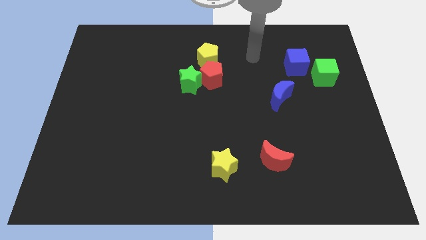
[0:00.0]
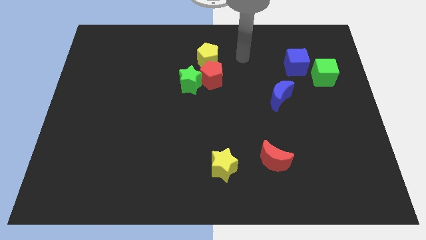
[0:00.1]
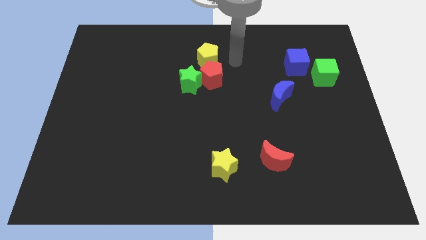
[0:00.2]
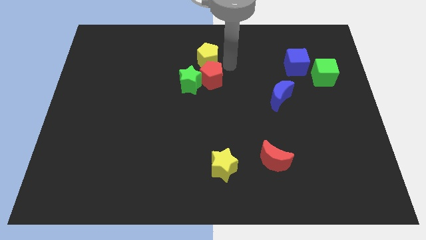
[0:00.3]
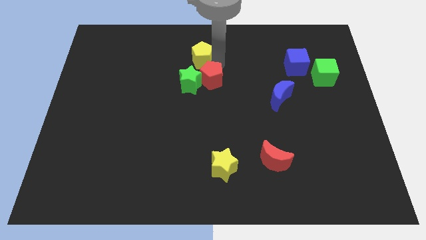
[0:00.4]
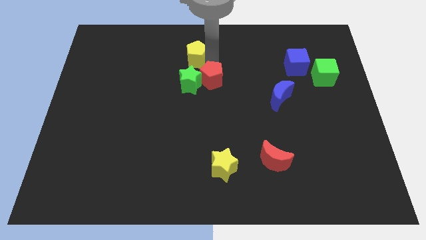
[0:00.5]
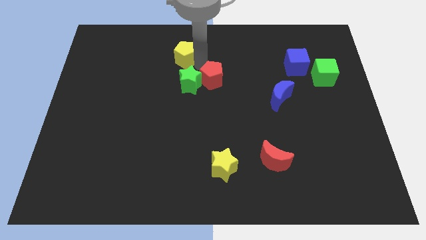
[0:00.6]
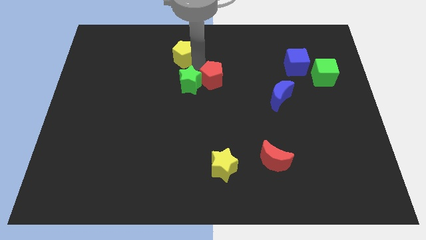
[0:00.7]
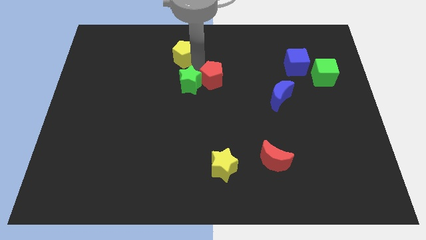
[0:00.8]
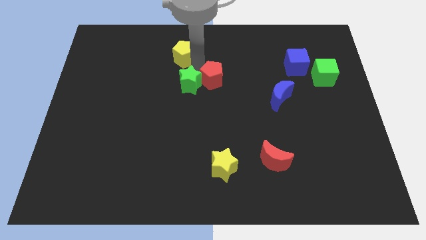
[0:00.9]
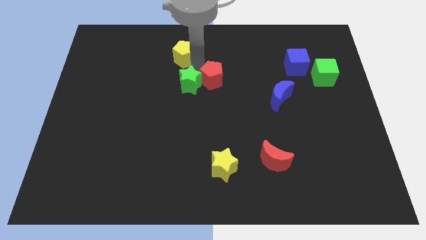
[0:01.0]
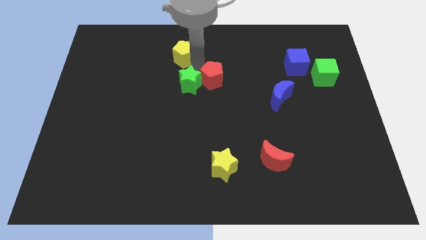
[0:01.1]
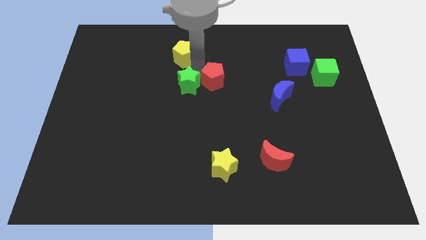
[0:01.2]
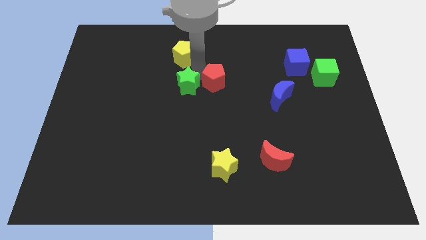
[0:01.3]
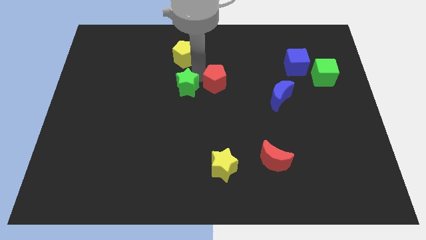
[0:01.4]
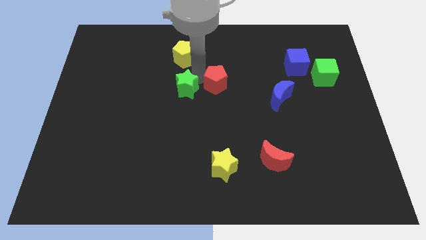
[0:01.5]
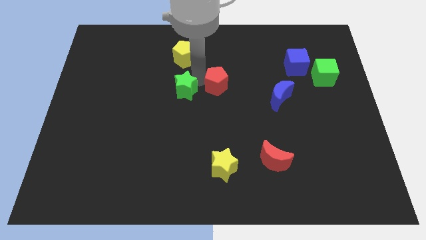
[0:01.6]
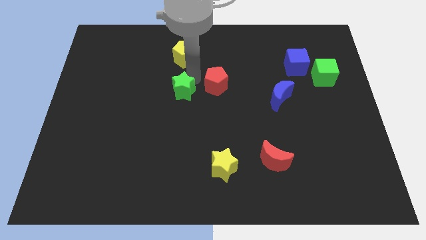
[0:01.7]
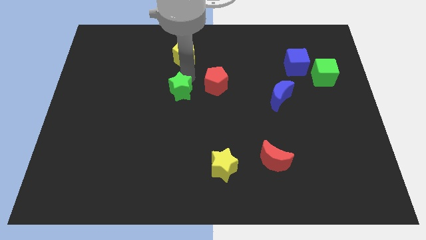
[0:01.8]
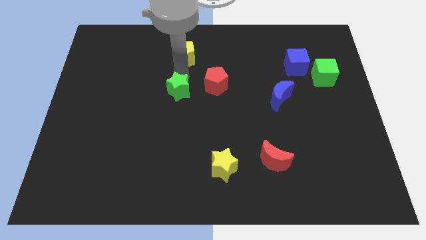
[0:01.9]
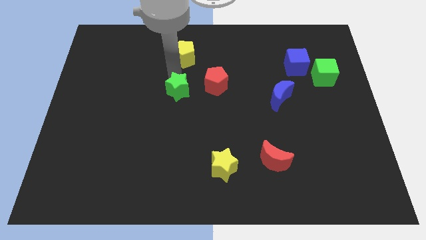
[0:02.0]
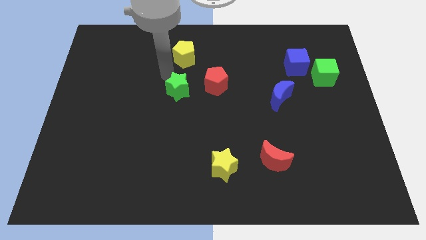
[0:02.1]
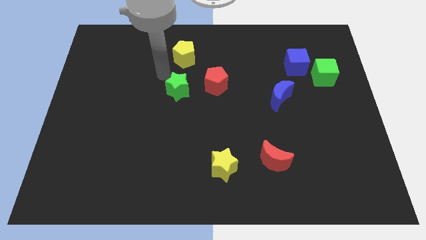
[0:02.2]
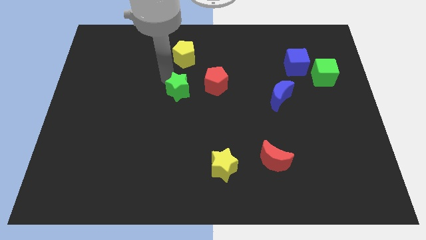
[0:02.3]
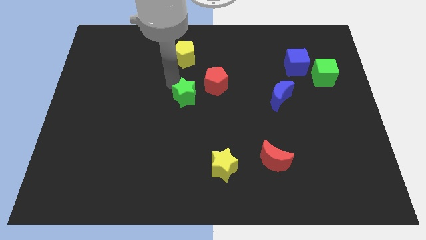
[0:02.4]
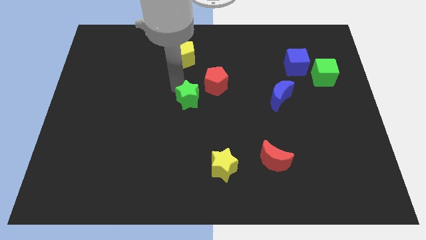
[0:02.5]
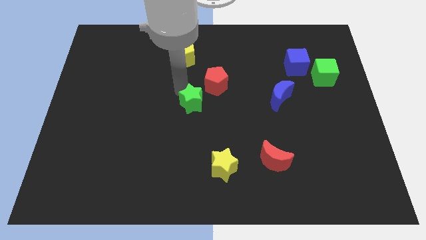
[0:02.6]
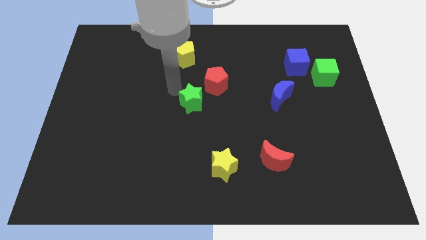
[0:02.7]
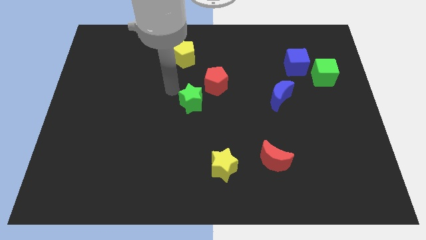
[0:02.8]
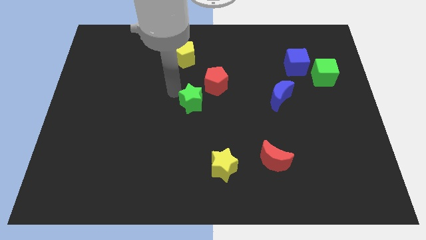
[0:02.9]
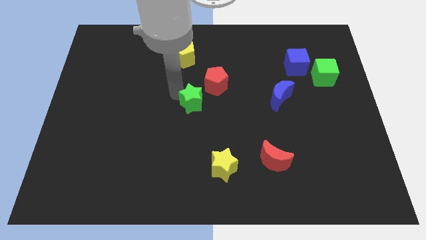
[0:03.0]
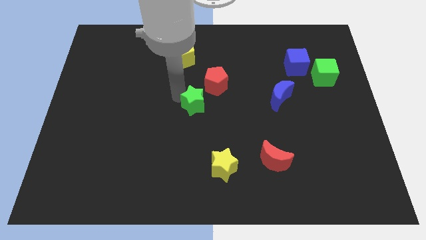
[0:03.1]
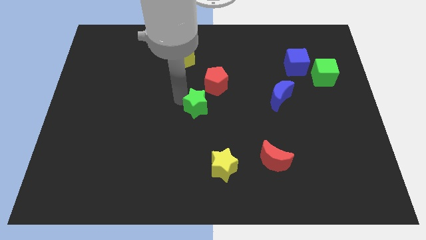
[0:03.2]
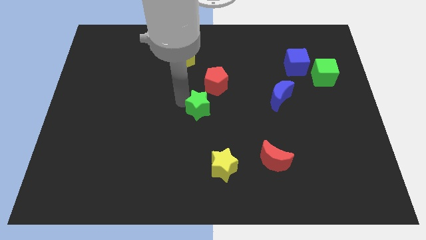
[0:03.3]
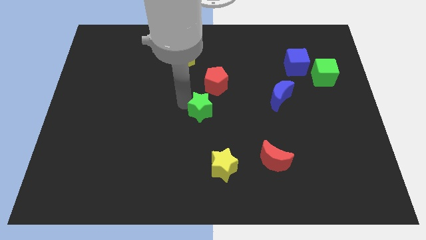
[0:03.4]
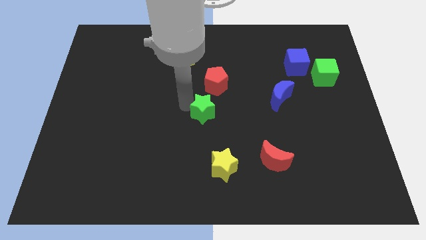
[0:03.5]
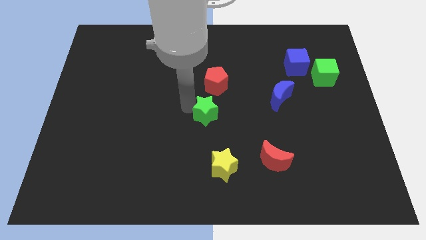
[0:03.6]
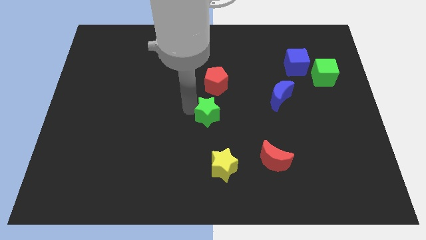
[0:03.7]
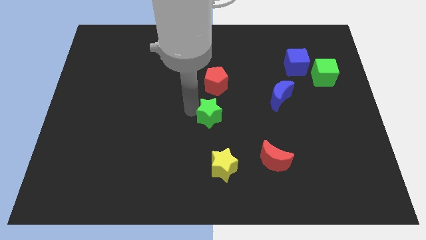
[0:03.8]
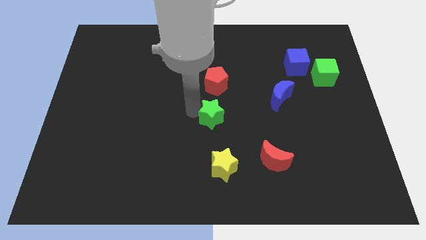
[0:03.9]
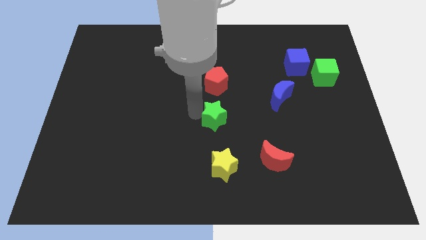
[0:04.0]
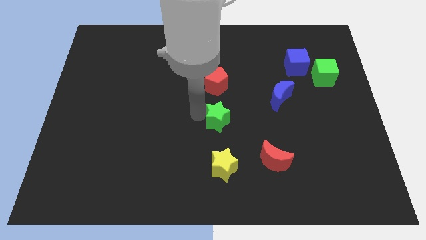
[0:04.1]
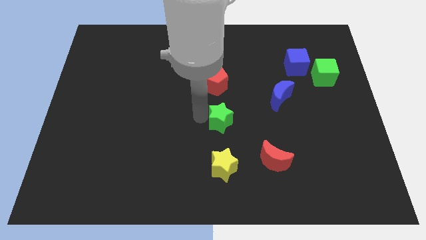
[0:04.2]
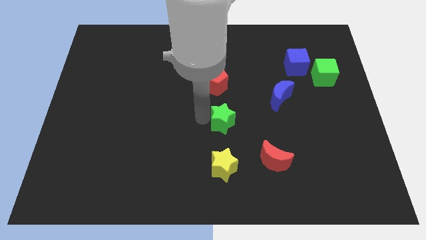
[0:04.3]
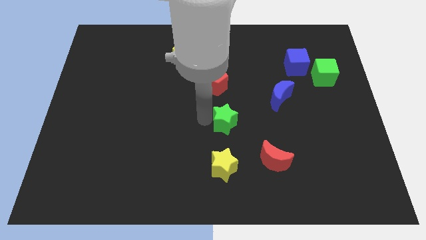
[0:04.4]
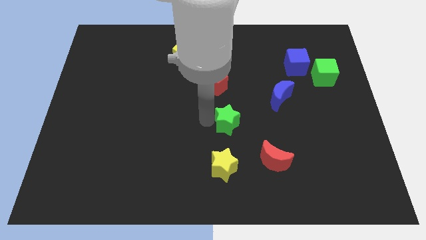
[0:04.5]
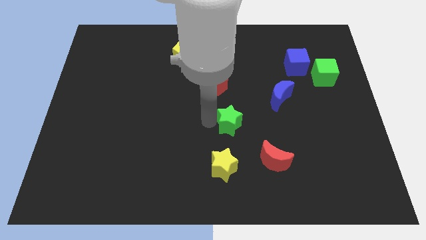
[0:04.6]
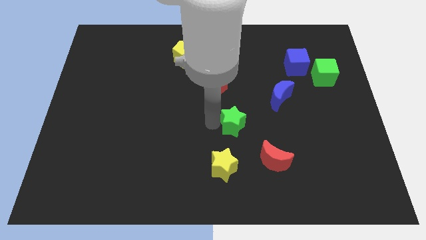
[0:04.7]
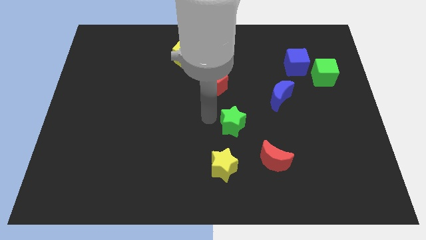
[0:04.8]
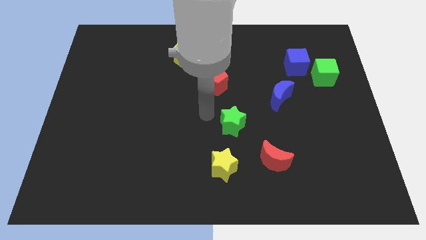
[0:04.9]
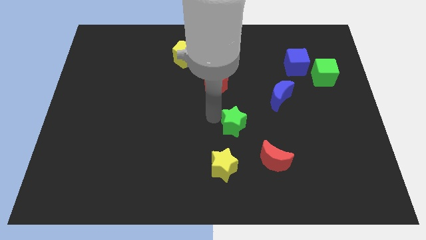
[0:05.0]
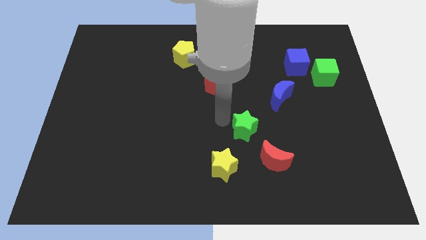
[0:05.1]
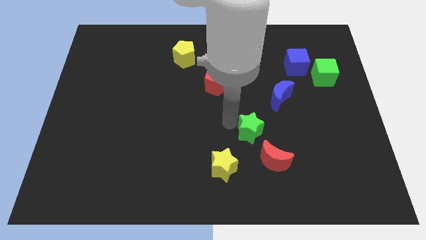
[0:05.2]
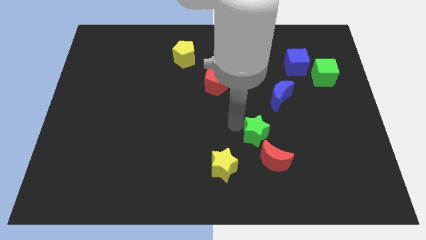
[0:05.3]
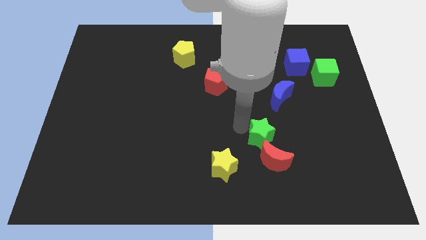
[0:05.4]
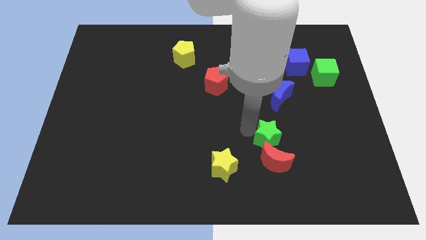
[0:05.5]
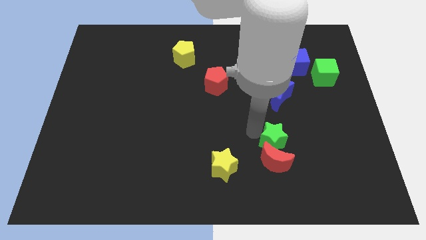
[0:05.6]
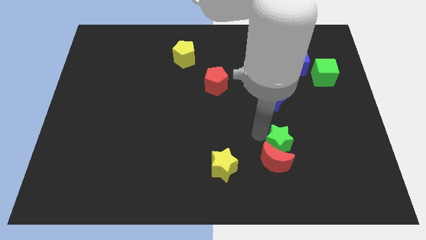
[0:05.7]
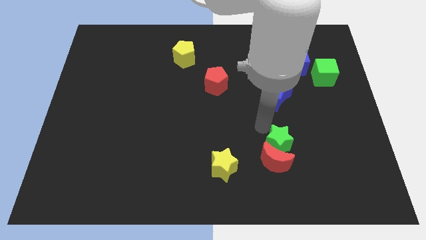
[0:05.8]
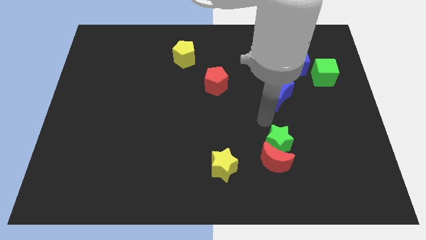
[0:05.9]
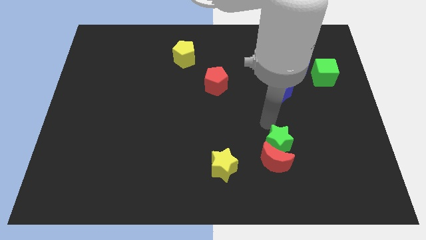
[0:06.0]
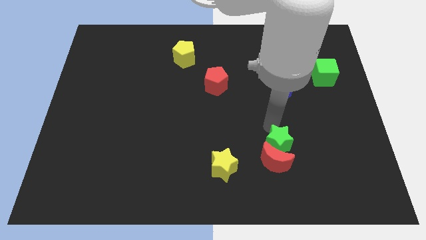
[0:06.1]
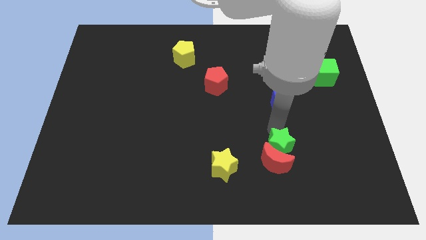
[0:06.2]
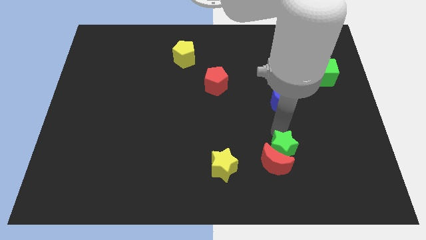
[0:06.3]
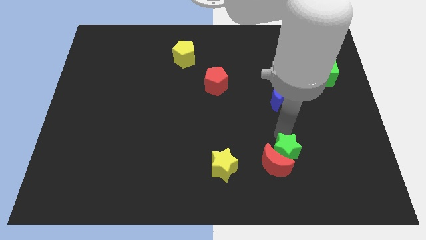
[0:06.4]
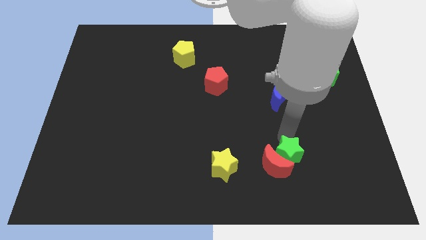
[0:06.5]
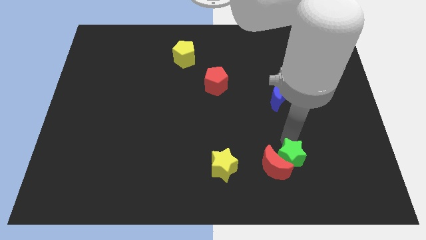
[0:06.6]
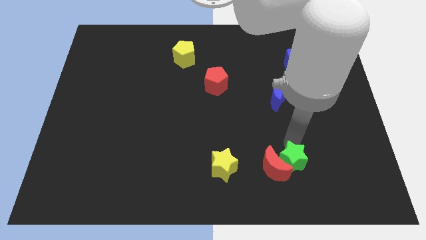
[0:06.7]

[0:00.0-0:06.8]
push the green star to the bottom right side of the red moon
